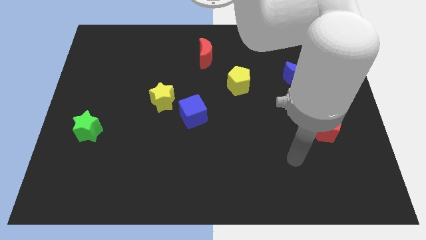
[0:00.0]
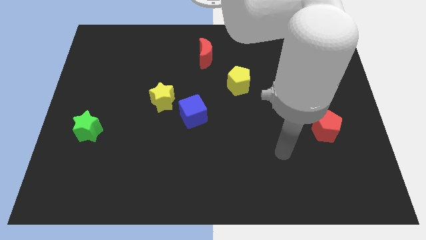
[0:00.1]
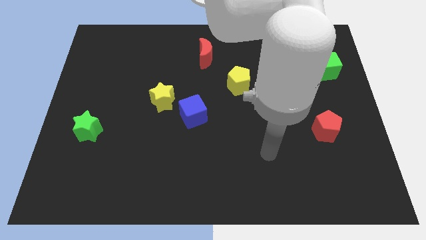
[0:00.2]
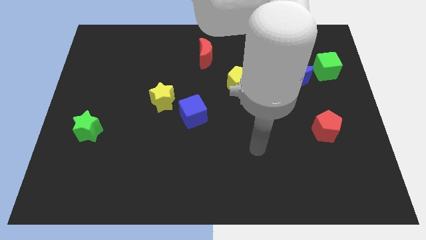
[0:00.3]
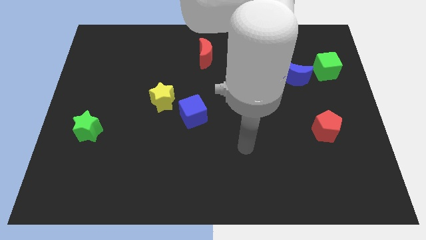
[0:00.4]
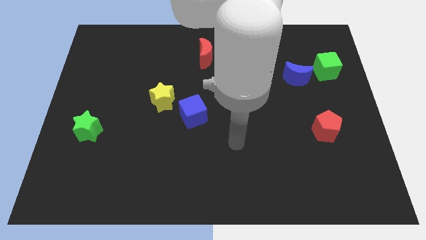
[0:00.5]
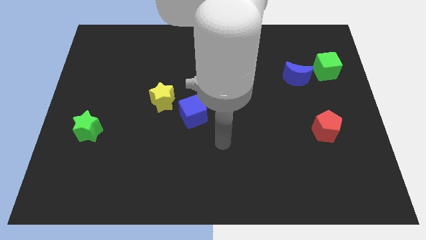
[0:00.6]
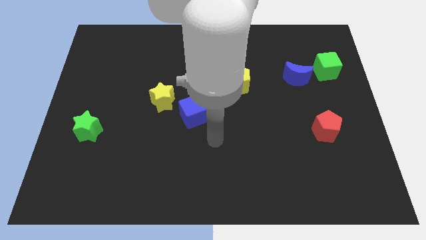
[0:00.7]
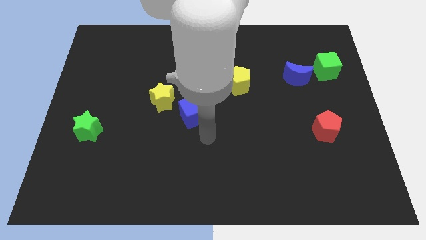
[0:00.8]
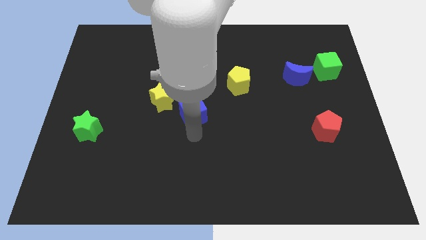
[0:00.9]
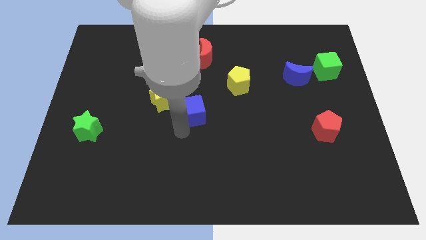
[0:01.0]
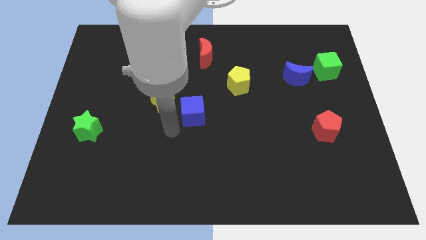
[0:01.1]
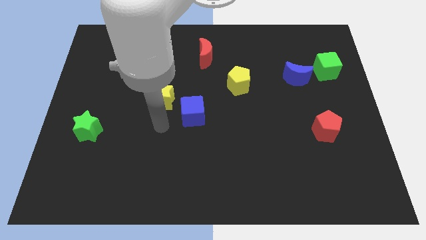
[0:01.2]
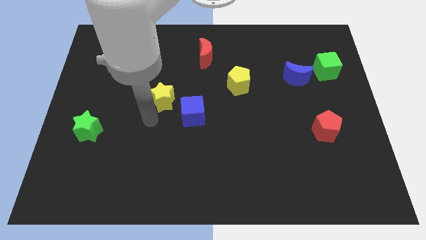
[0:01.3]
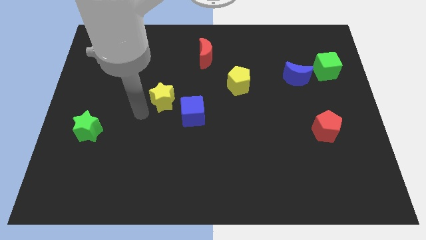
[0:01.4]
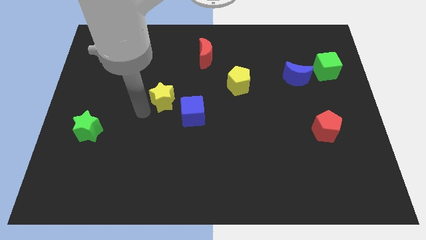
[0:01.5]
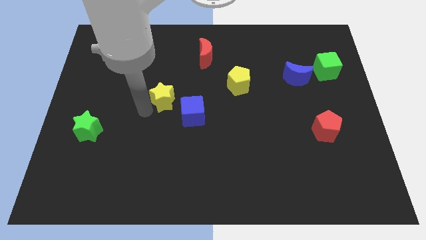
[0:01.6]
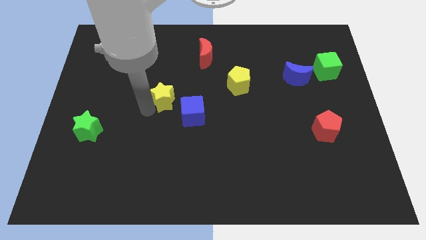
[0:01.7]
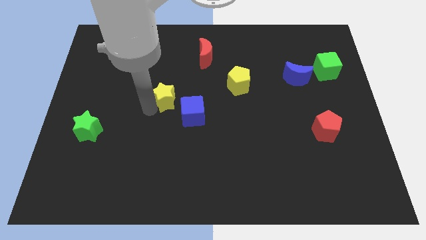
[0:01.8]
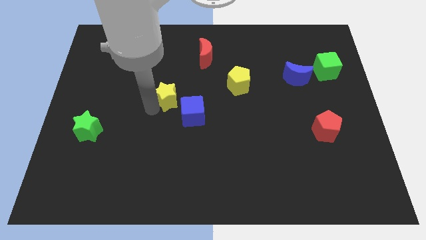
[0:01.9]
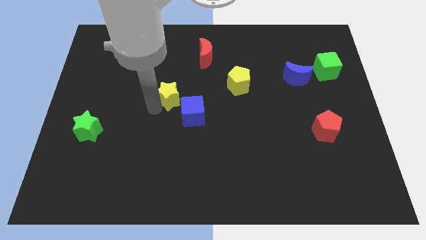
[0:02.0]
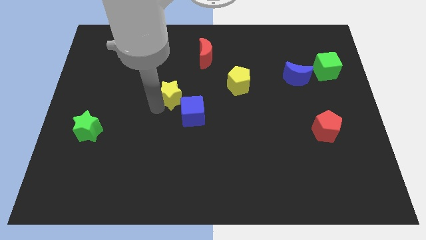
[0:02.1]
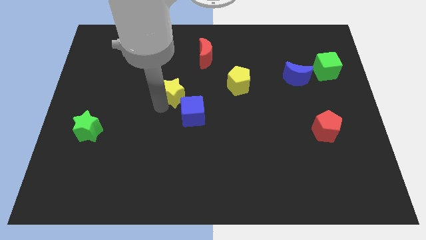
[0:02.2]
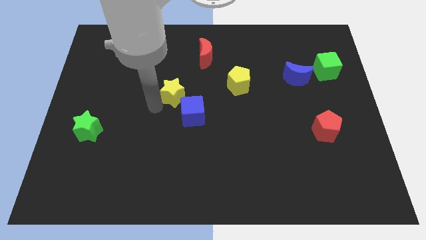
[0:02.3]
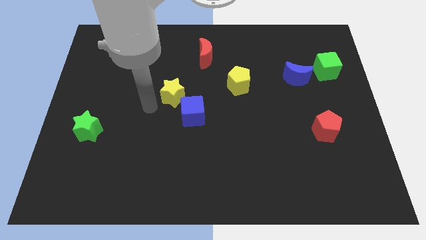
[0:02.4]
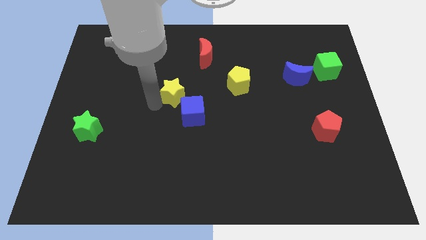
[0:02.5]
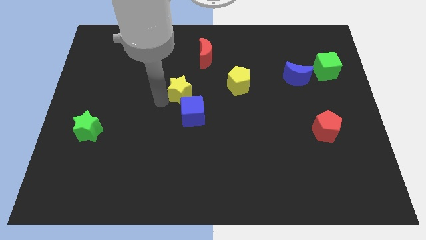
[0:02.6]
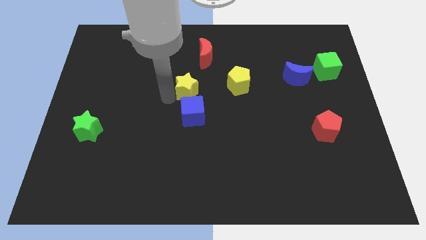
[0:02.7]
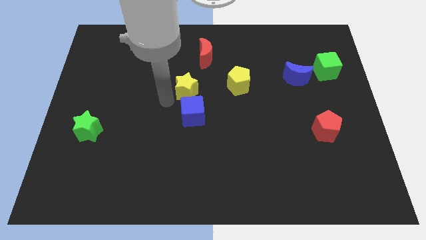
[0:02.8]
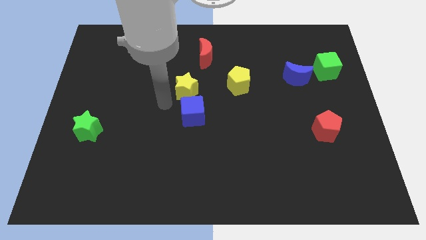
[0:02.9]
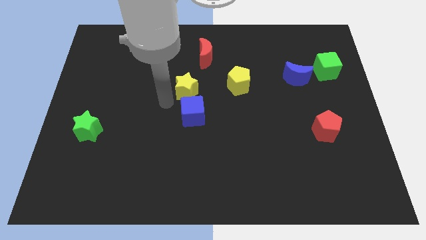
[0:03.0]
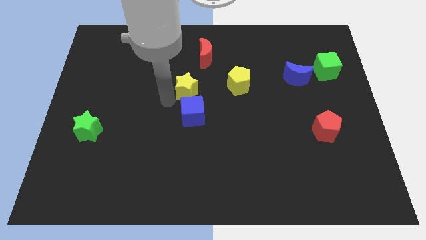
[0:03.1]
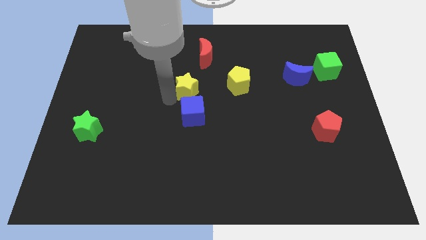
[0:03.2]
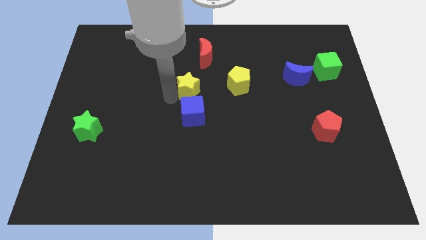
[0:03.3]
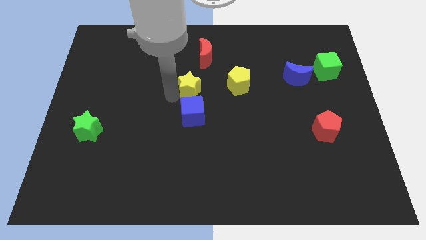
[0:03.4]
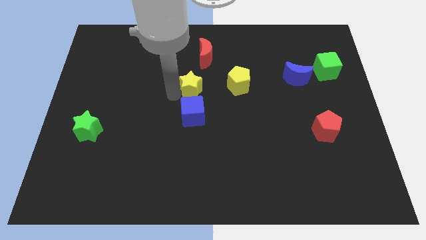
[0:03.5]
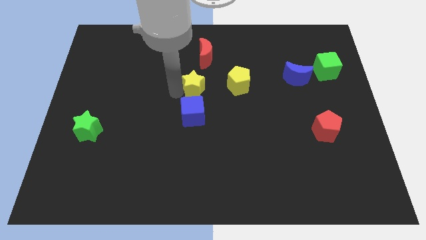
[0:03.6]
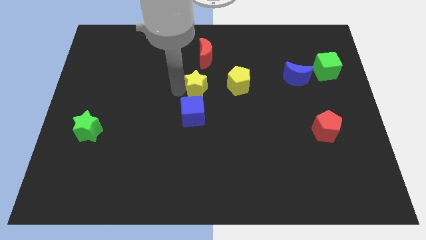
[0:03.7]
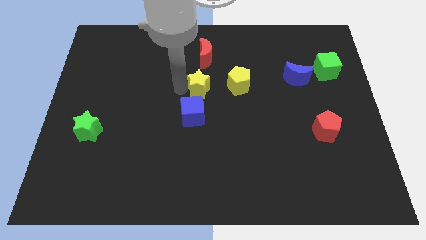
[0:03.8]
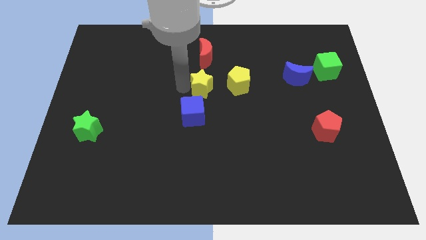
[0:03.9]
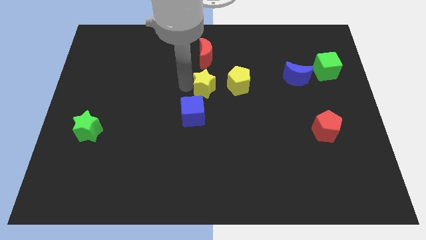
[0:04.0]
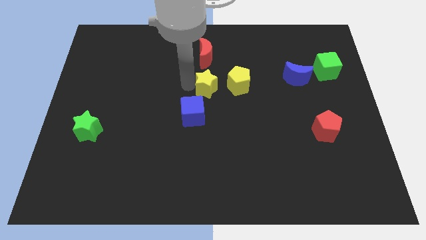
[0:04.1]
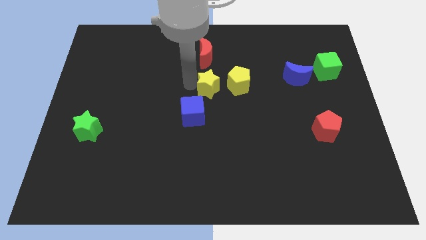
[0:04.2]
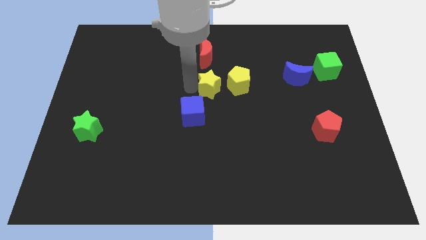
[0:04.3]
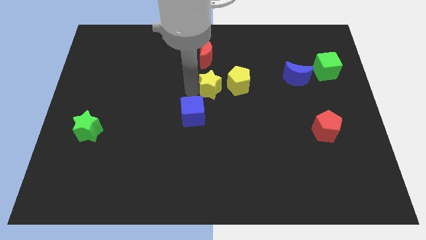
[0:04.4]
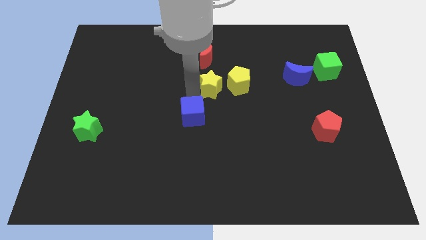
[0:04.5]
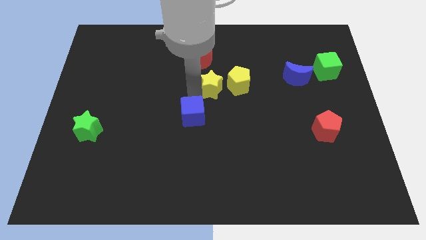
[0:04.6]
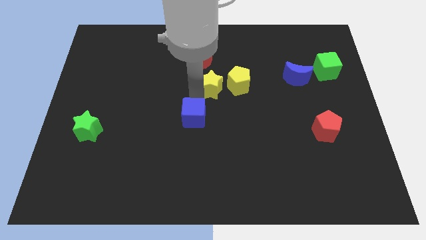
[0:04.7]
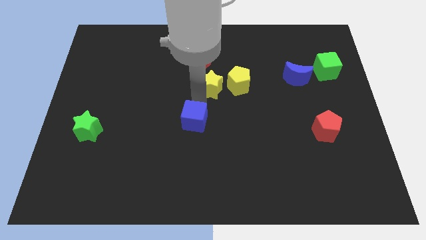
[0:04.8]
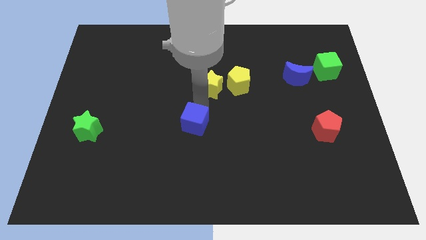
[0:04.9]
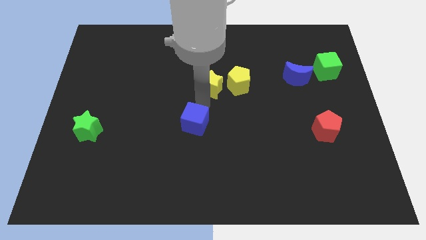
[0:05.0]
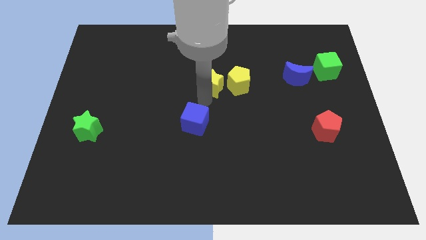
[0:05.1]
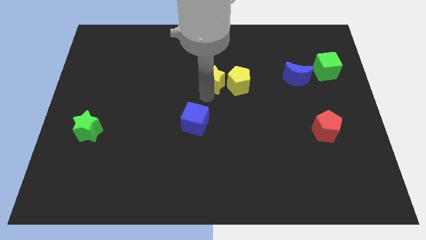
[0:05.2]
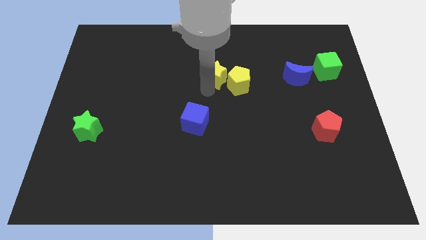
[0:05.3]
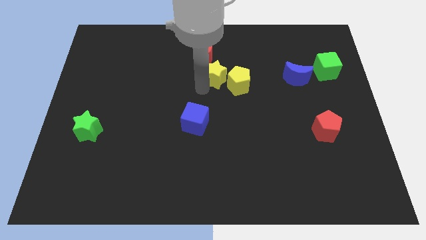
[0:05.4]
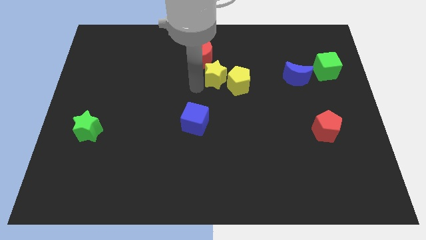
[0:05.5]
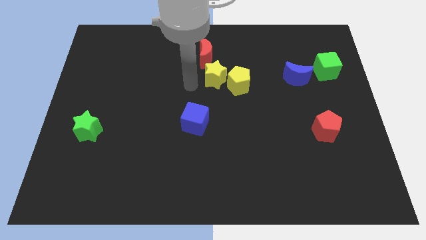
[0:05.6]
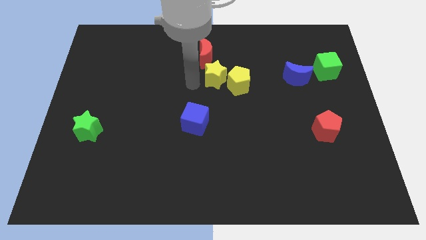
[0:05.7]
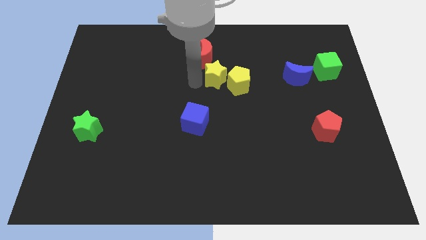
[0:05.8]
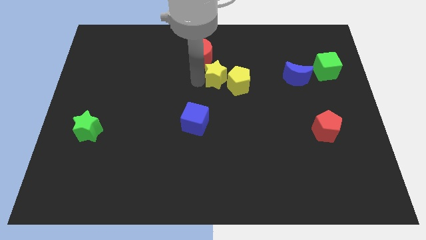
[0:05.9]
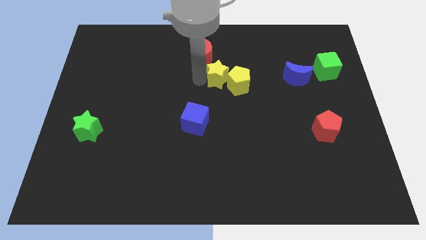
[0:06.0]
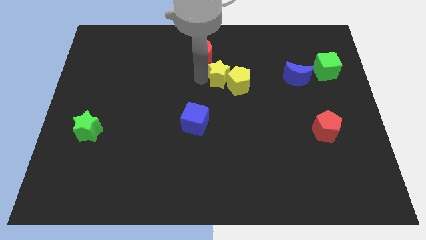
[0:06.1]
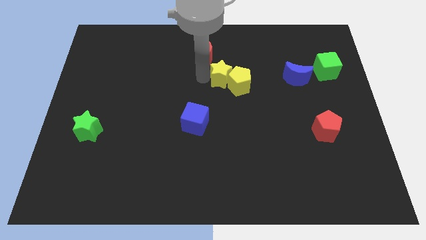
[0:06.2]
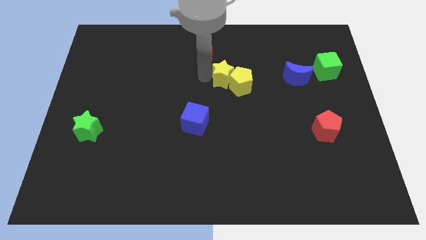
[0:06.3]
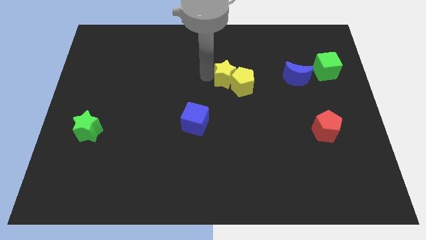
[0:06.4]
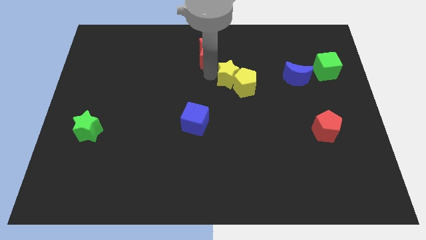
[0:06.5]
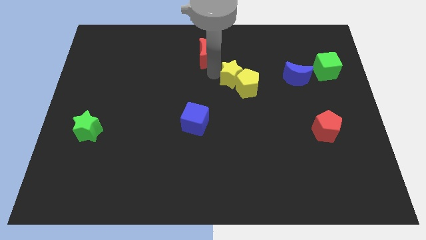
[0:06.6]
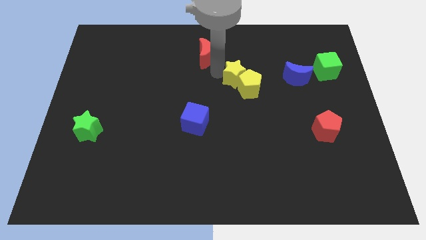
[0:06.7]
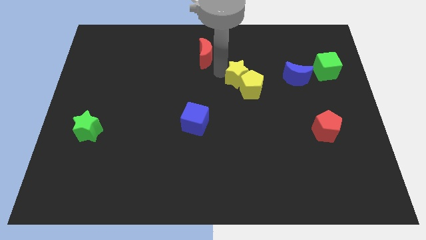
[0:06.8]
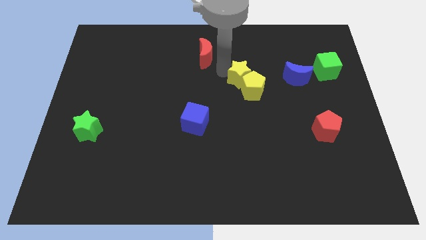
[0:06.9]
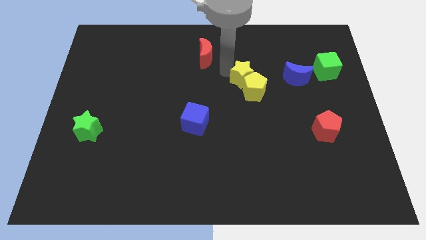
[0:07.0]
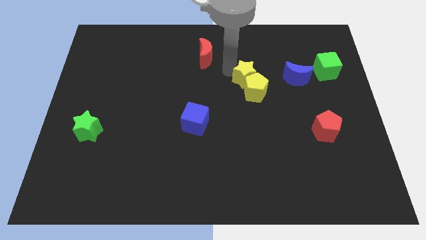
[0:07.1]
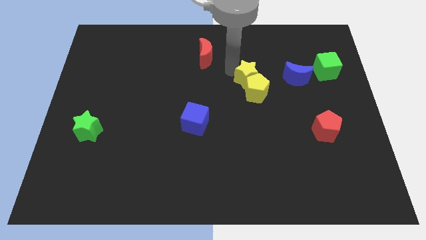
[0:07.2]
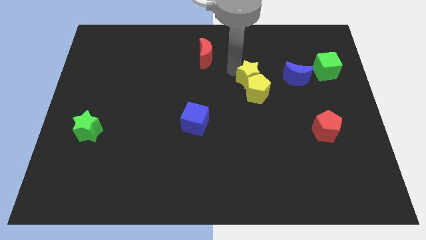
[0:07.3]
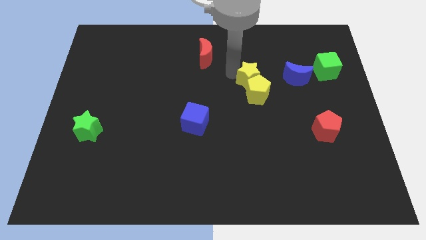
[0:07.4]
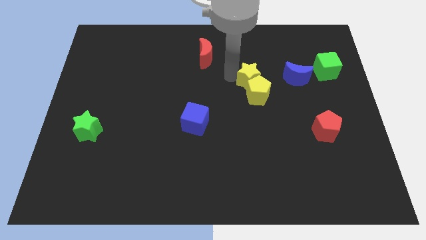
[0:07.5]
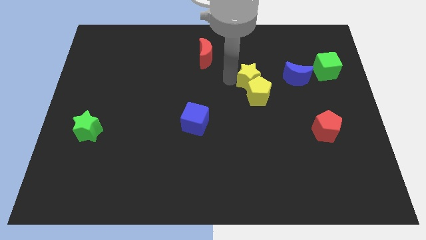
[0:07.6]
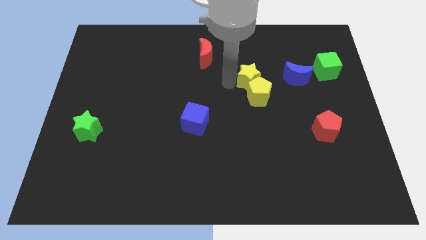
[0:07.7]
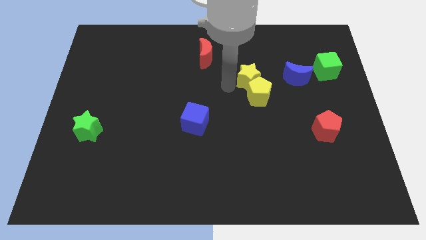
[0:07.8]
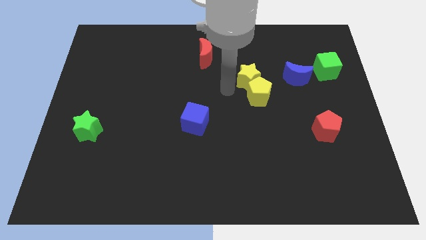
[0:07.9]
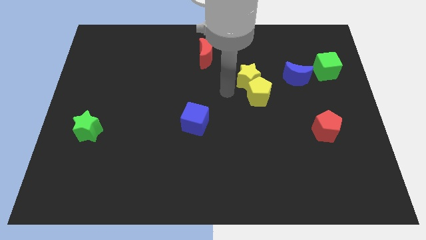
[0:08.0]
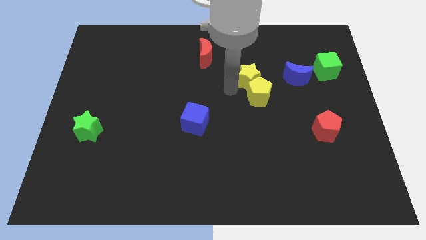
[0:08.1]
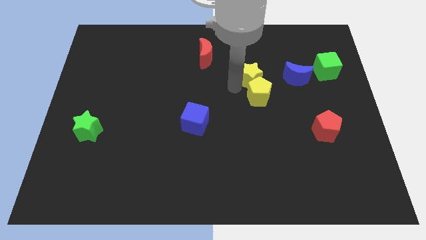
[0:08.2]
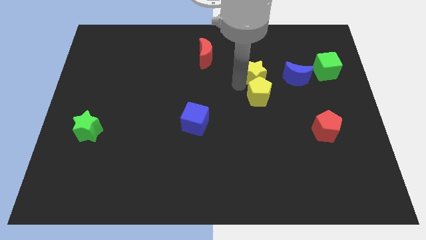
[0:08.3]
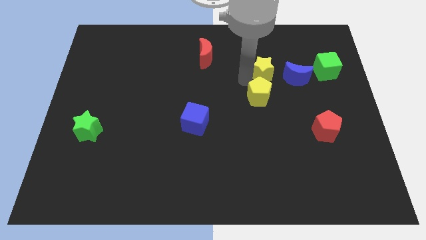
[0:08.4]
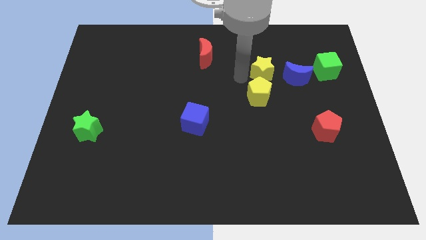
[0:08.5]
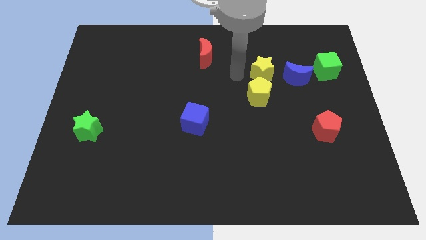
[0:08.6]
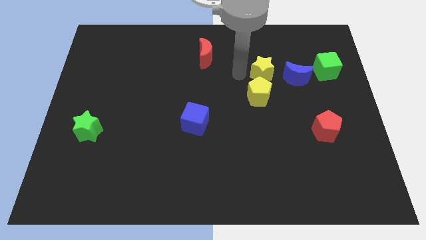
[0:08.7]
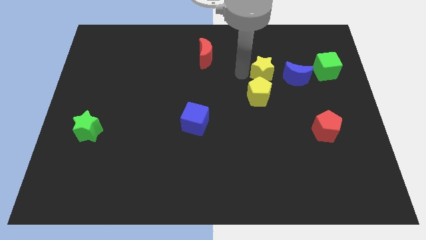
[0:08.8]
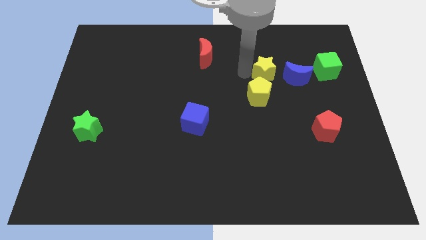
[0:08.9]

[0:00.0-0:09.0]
put the yellow star just left of the green cube
